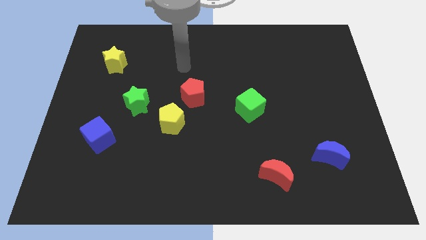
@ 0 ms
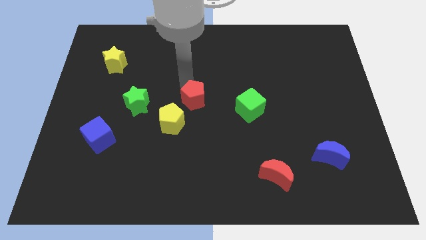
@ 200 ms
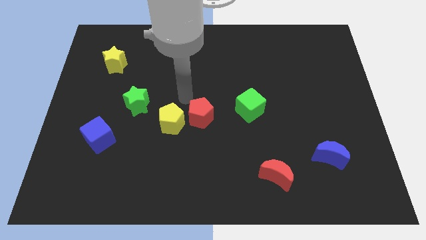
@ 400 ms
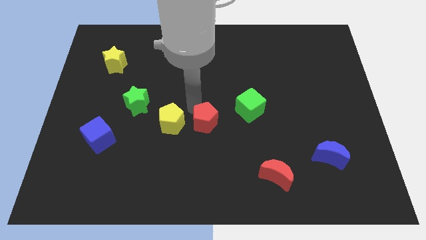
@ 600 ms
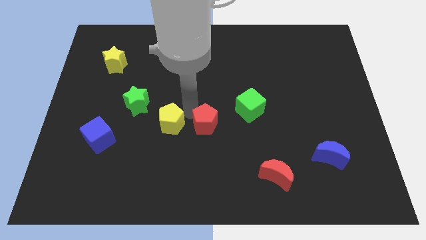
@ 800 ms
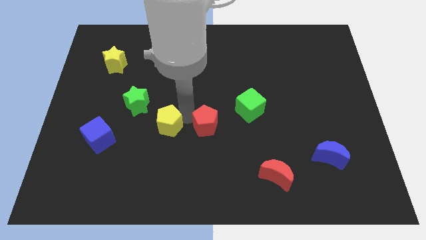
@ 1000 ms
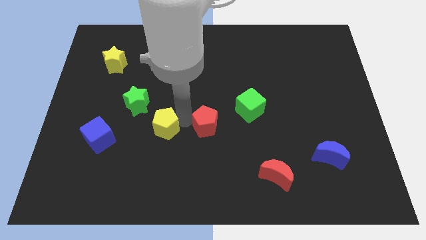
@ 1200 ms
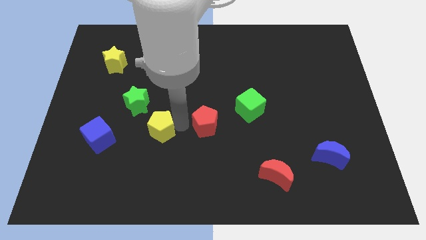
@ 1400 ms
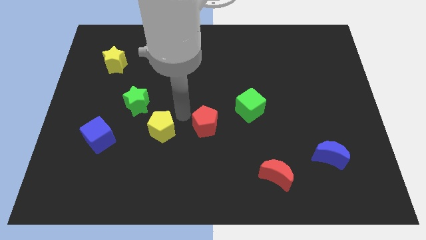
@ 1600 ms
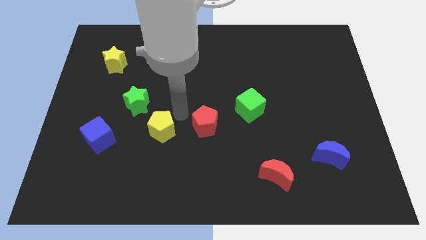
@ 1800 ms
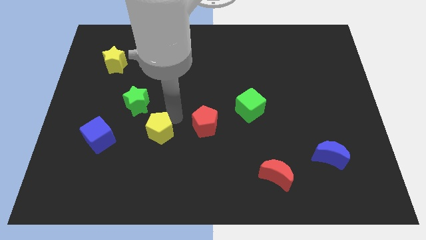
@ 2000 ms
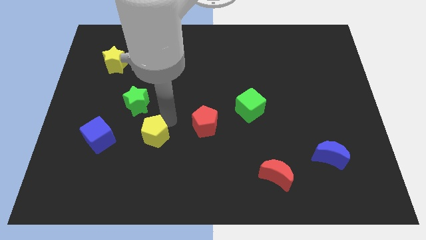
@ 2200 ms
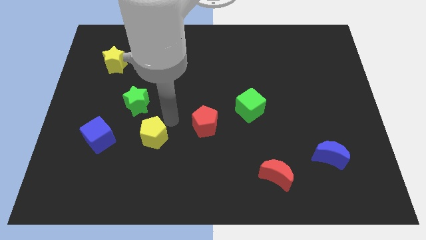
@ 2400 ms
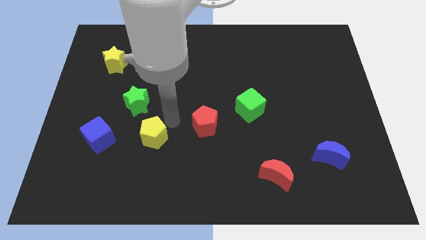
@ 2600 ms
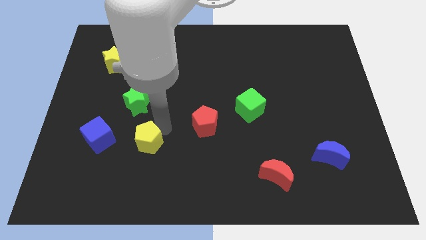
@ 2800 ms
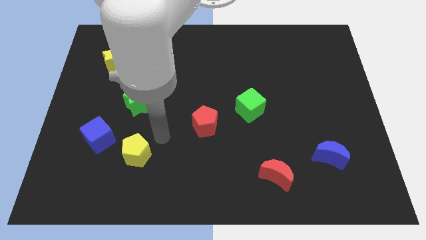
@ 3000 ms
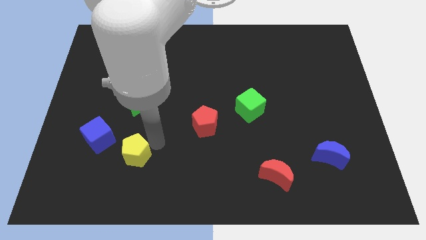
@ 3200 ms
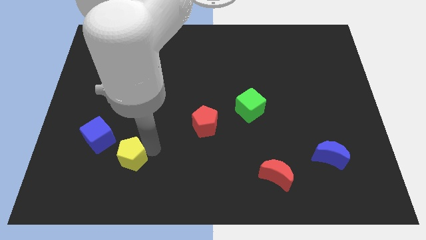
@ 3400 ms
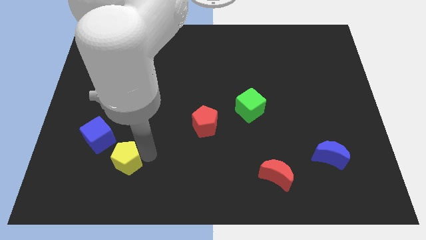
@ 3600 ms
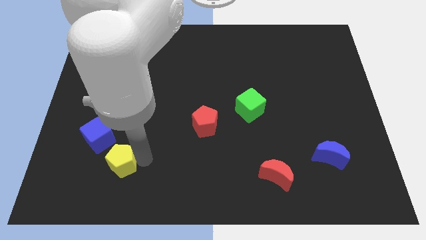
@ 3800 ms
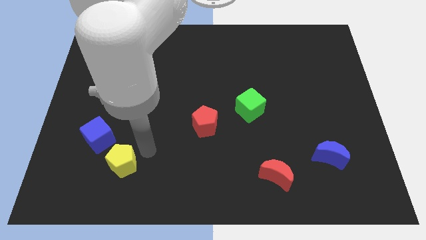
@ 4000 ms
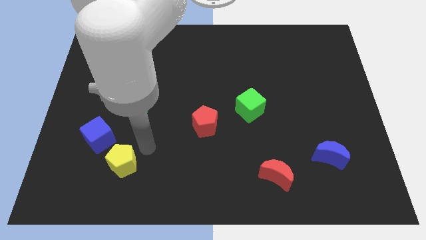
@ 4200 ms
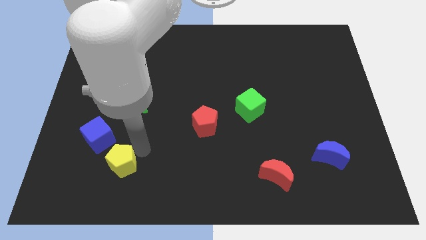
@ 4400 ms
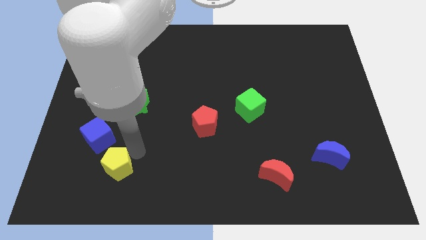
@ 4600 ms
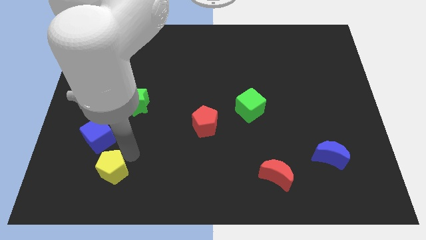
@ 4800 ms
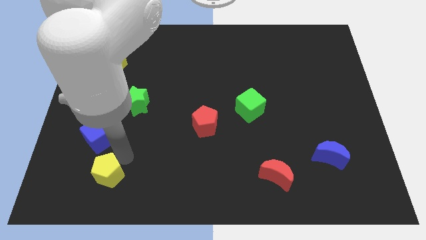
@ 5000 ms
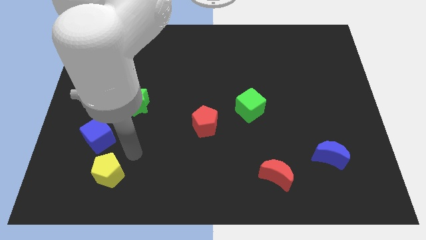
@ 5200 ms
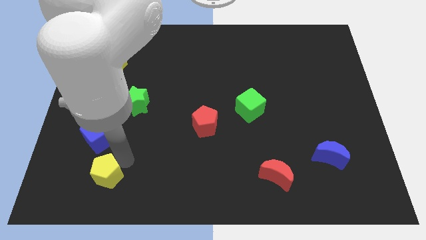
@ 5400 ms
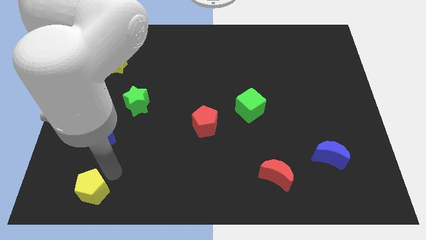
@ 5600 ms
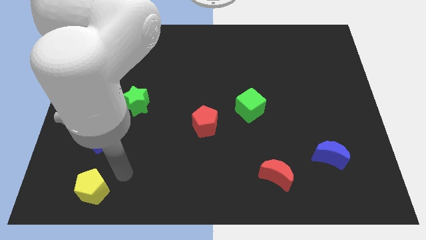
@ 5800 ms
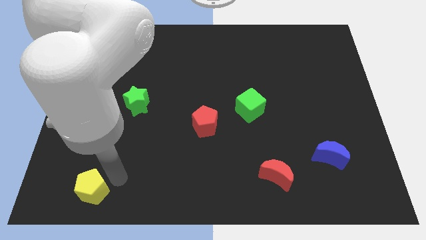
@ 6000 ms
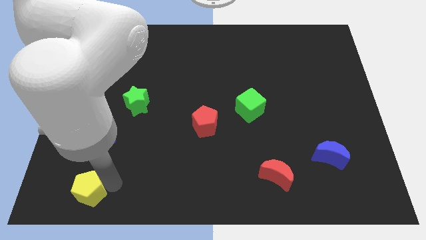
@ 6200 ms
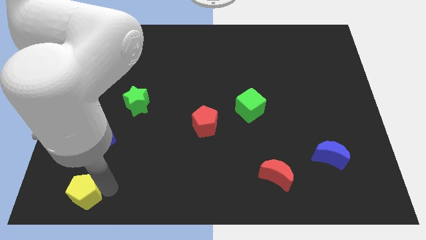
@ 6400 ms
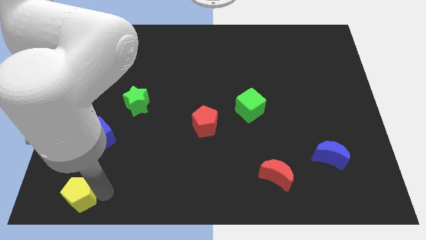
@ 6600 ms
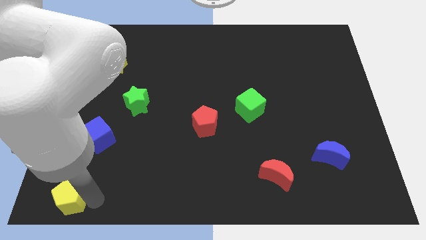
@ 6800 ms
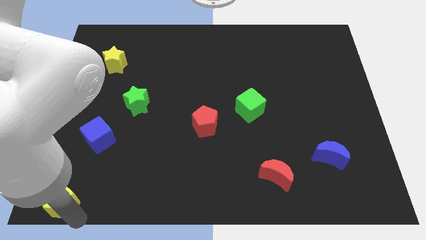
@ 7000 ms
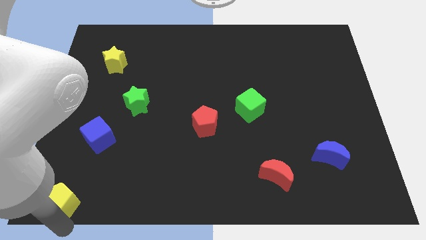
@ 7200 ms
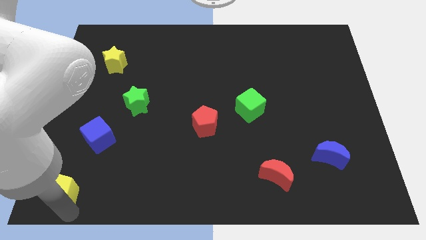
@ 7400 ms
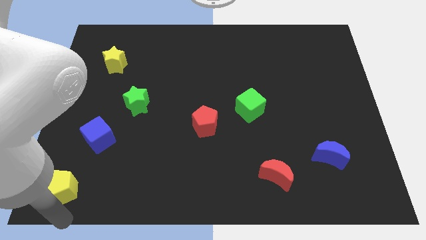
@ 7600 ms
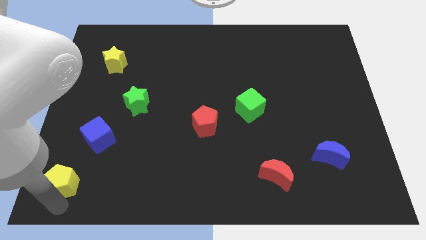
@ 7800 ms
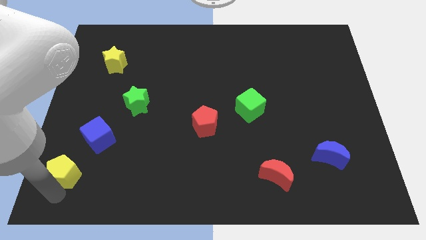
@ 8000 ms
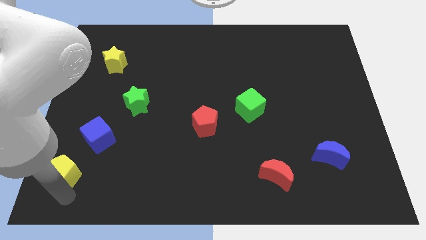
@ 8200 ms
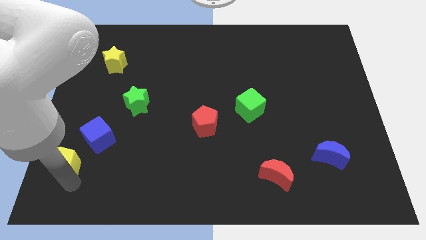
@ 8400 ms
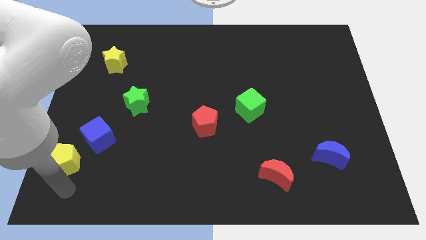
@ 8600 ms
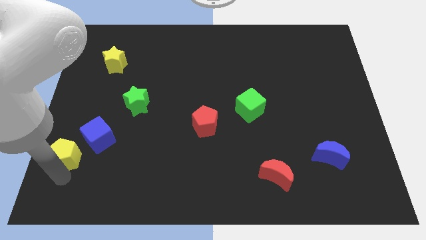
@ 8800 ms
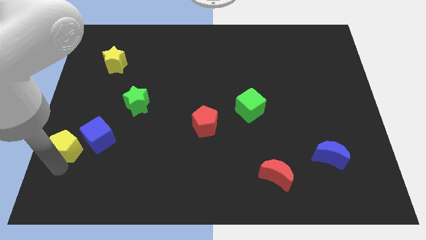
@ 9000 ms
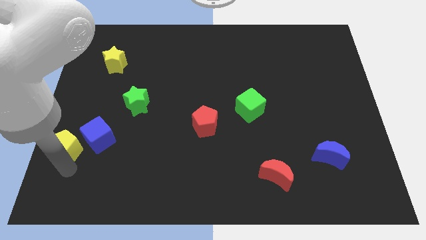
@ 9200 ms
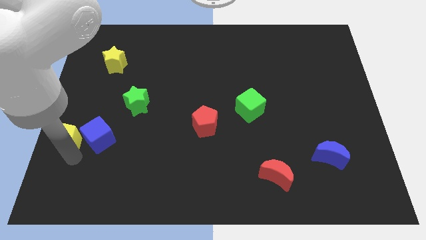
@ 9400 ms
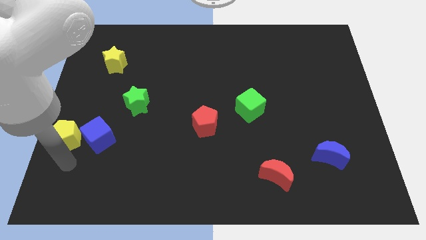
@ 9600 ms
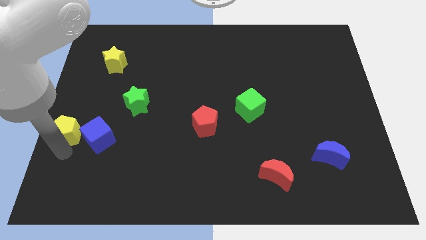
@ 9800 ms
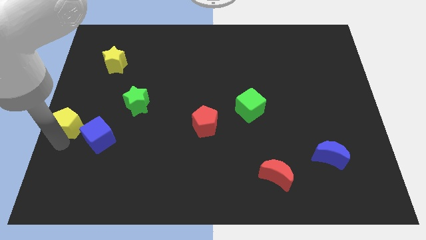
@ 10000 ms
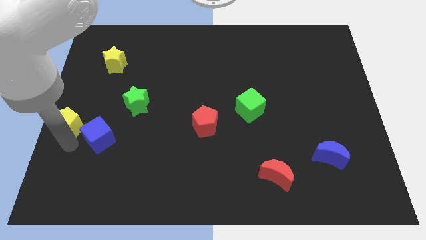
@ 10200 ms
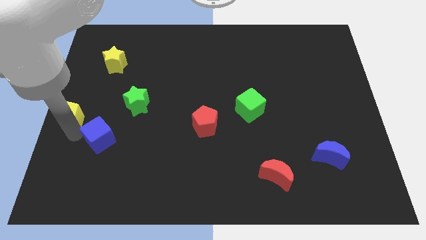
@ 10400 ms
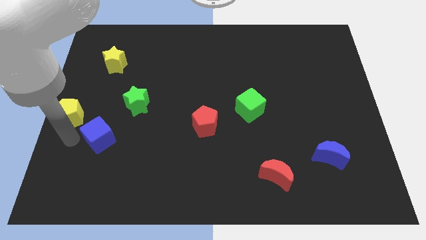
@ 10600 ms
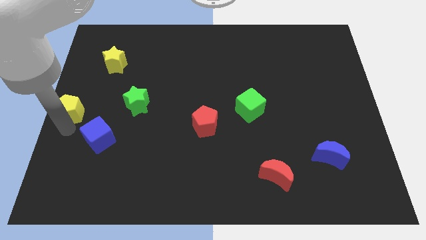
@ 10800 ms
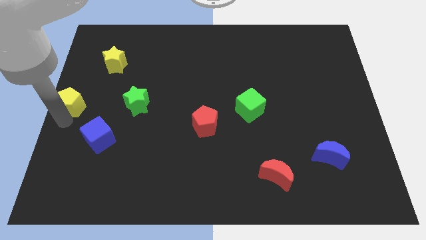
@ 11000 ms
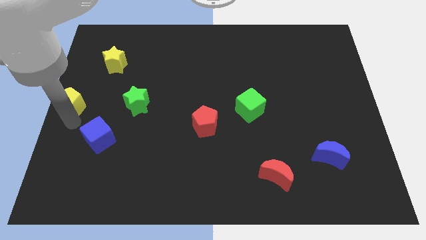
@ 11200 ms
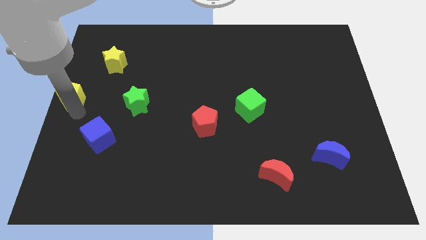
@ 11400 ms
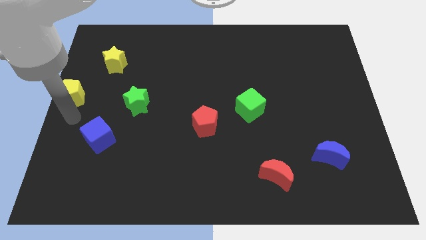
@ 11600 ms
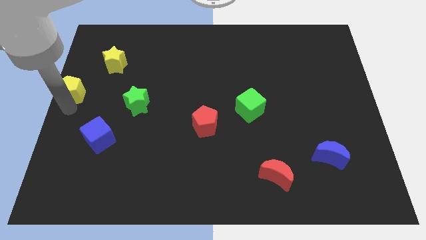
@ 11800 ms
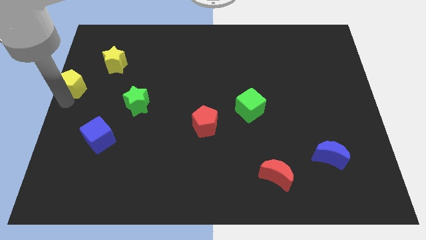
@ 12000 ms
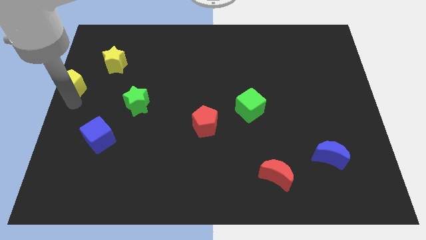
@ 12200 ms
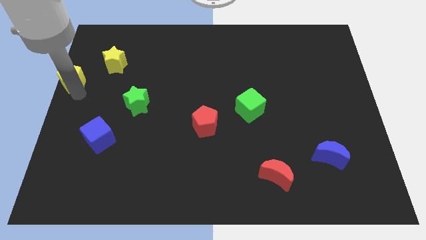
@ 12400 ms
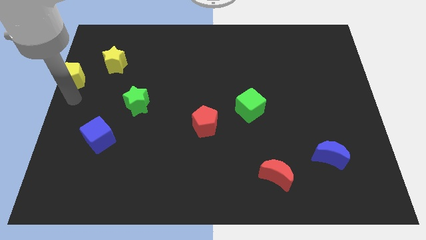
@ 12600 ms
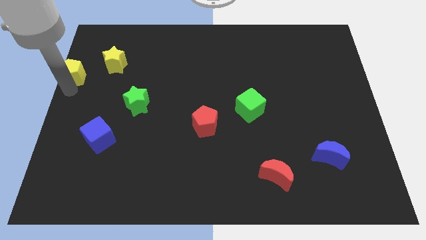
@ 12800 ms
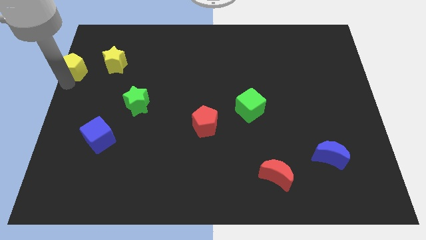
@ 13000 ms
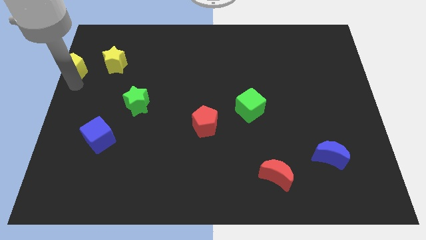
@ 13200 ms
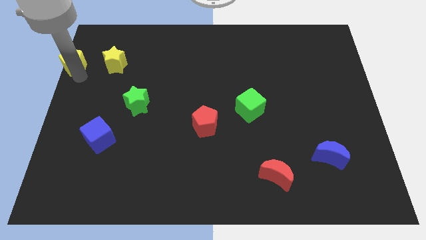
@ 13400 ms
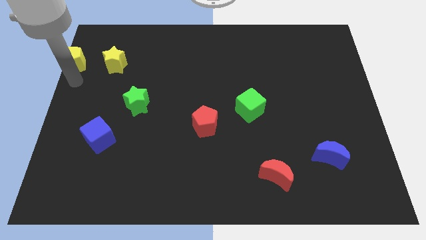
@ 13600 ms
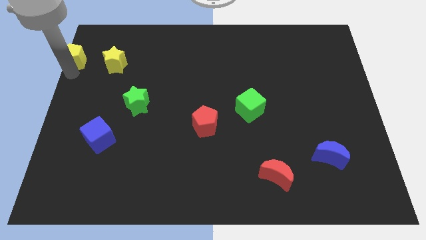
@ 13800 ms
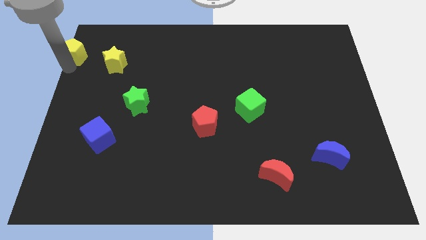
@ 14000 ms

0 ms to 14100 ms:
move the yellow pentagon to the top left corner
